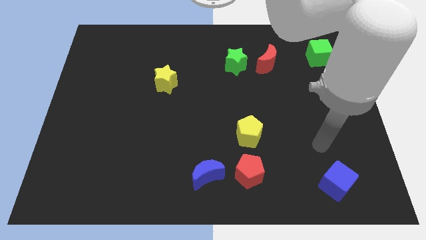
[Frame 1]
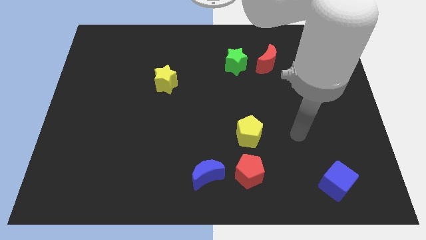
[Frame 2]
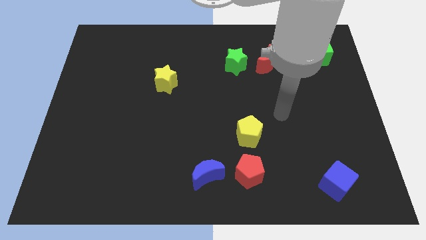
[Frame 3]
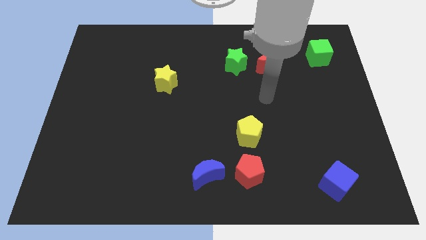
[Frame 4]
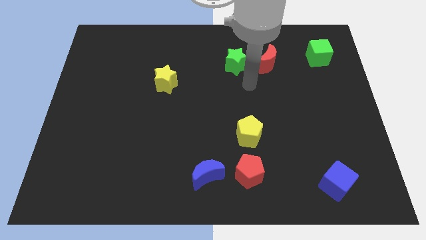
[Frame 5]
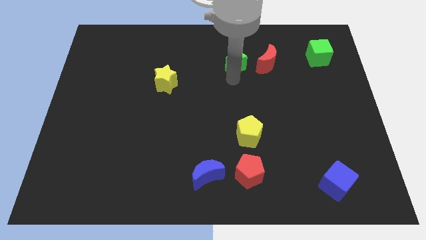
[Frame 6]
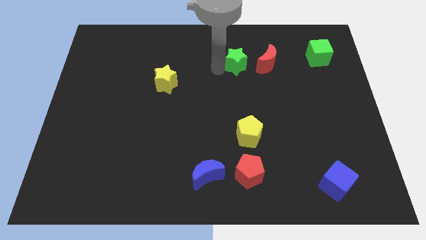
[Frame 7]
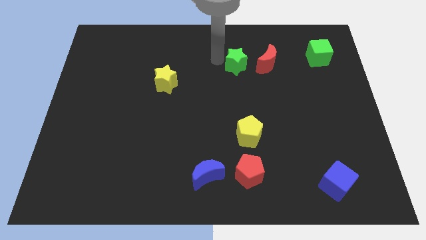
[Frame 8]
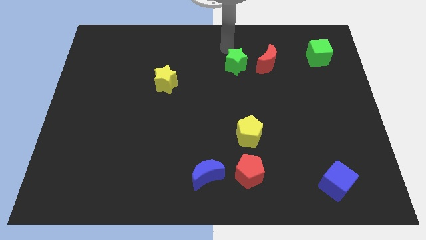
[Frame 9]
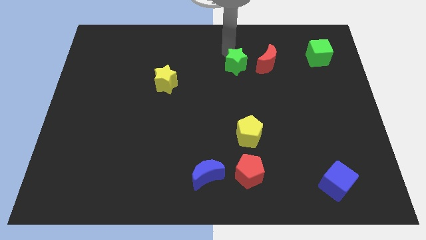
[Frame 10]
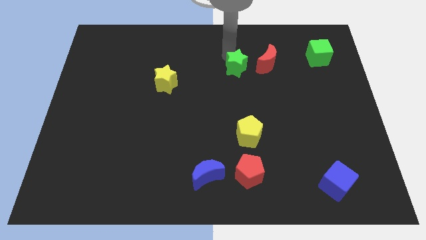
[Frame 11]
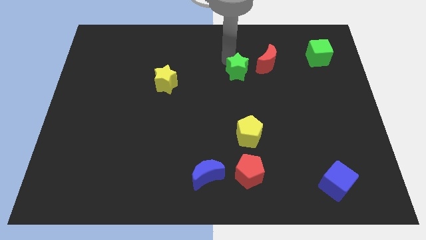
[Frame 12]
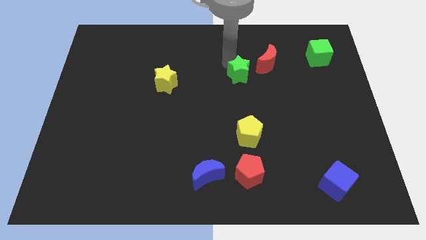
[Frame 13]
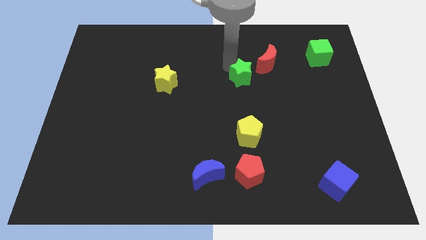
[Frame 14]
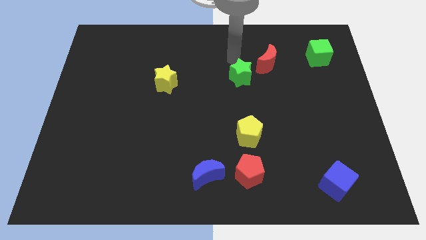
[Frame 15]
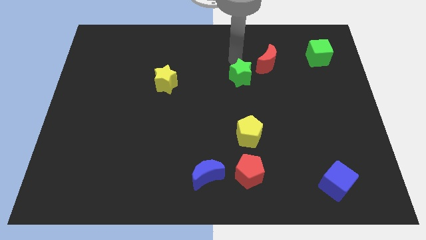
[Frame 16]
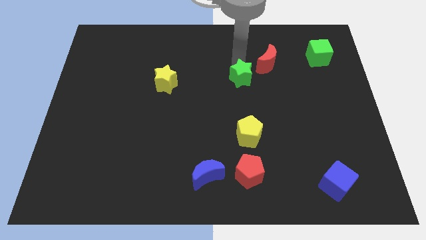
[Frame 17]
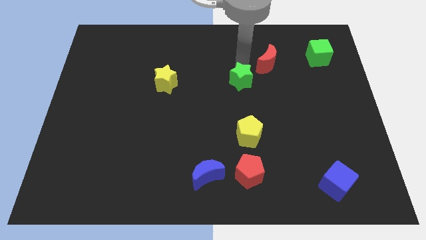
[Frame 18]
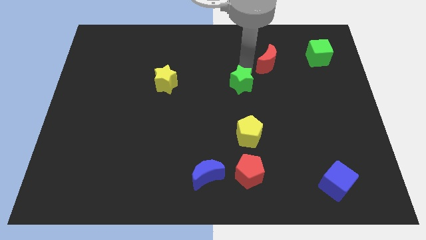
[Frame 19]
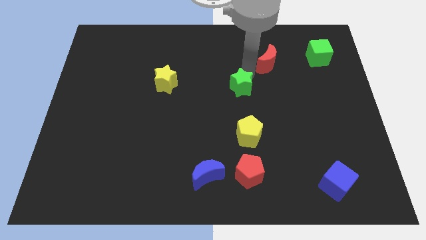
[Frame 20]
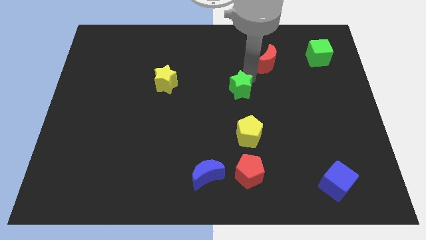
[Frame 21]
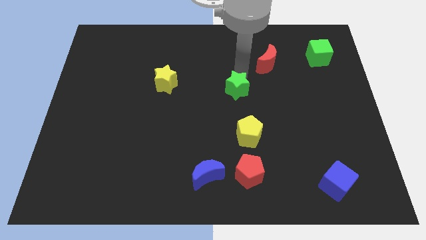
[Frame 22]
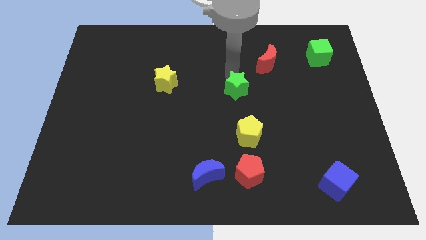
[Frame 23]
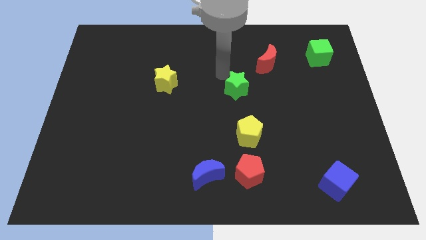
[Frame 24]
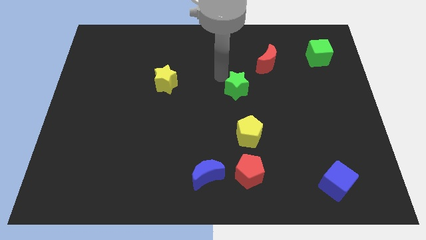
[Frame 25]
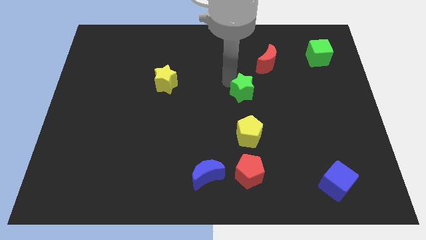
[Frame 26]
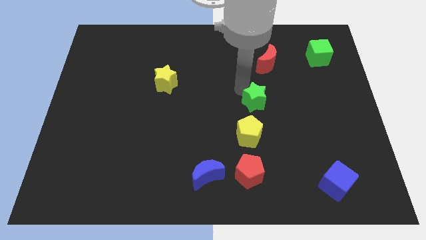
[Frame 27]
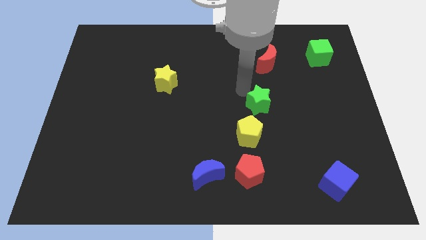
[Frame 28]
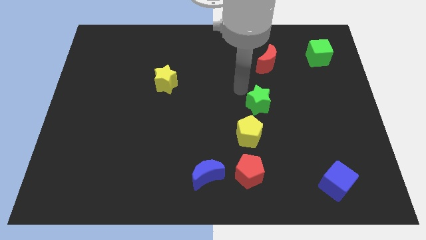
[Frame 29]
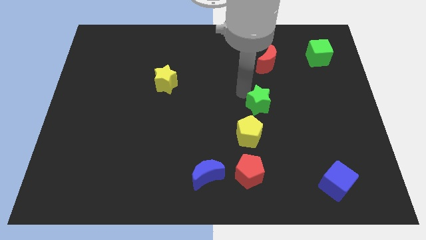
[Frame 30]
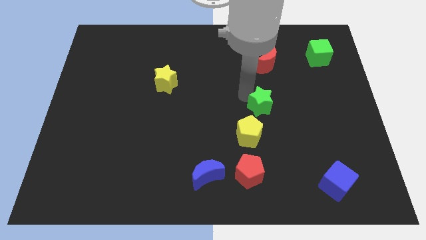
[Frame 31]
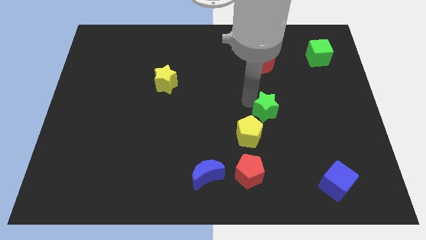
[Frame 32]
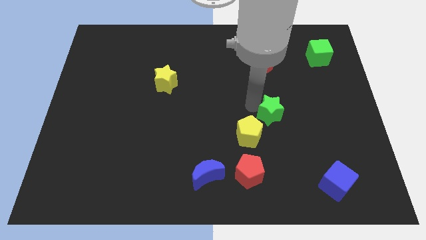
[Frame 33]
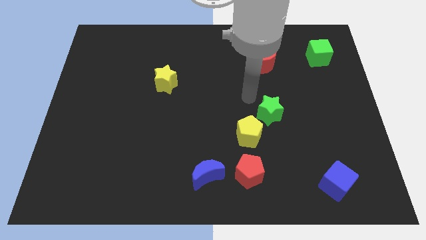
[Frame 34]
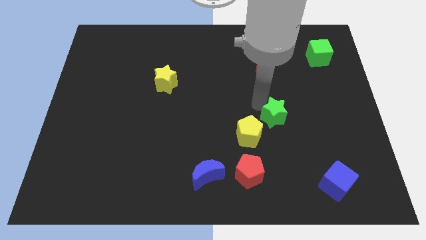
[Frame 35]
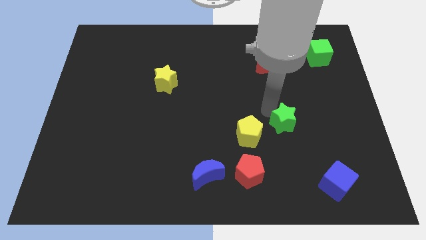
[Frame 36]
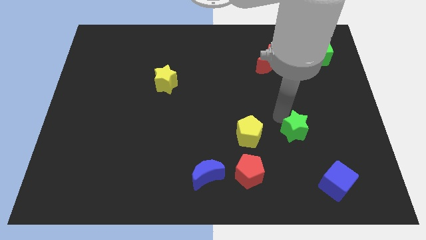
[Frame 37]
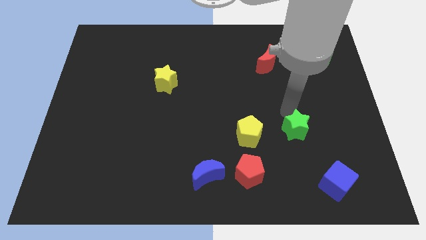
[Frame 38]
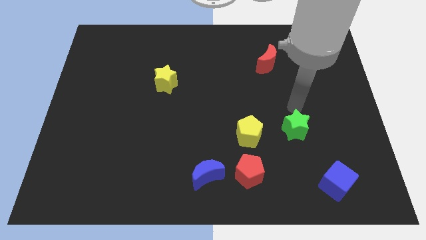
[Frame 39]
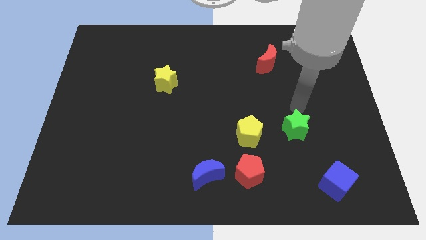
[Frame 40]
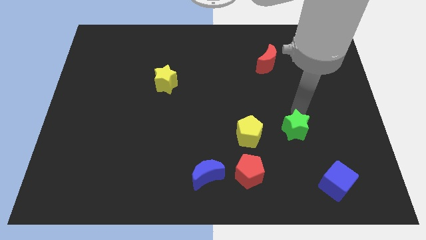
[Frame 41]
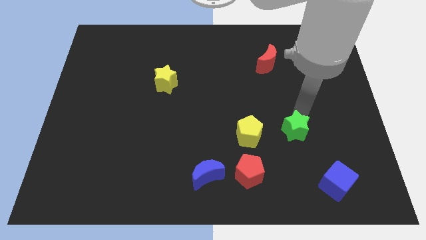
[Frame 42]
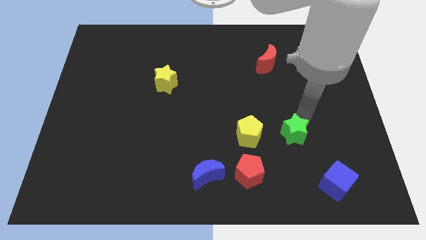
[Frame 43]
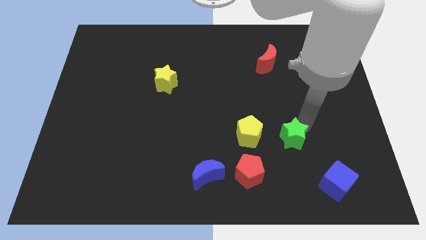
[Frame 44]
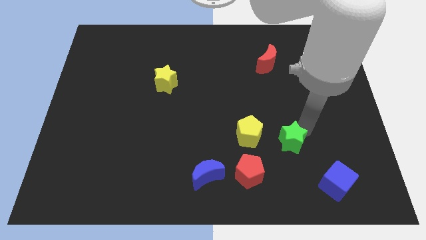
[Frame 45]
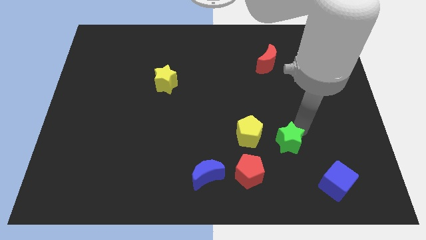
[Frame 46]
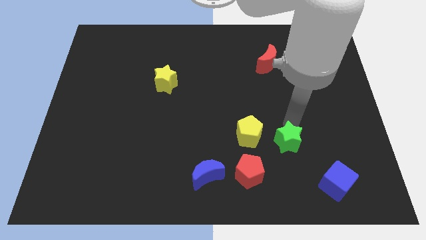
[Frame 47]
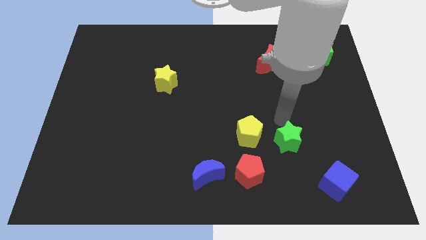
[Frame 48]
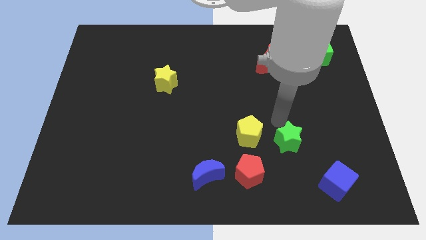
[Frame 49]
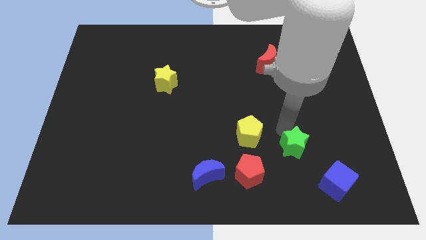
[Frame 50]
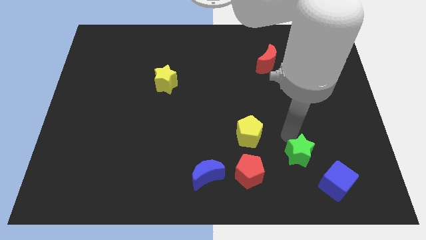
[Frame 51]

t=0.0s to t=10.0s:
push the green star to the right of the red pentagon

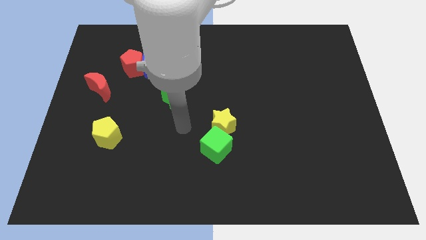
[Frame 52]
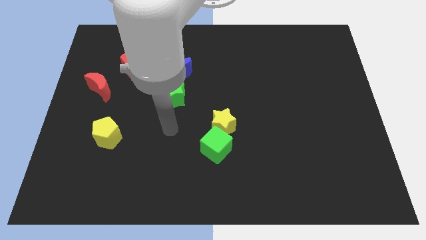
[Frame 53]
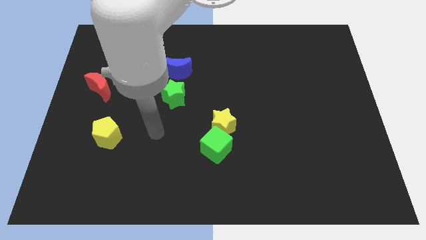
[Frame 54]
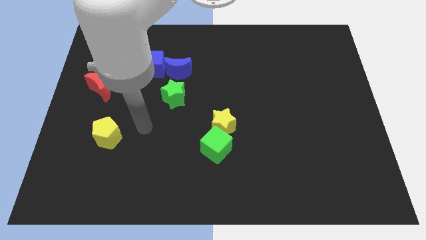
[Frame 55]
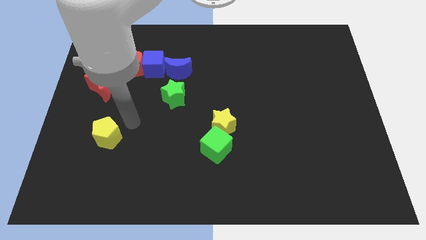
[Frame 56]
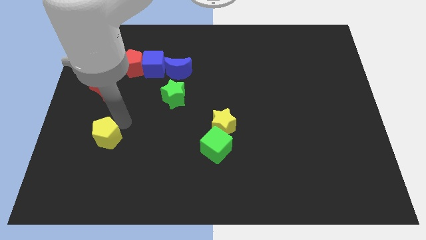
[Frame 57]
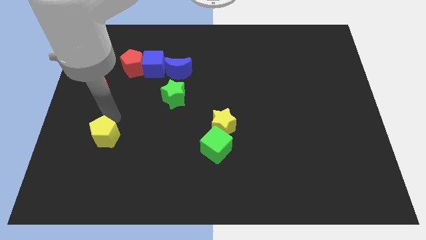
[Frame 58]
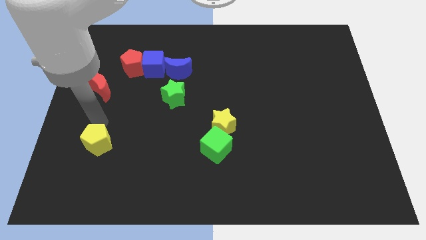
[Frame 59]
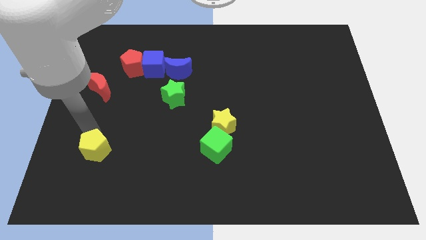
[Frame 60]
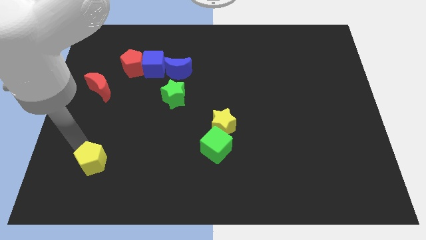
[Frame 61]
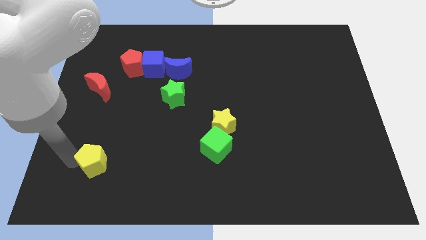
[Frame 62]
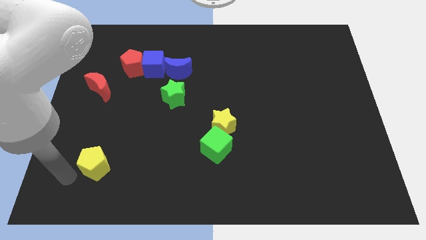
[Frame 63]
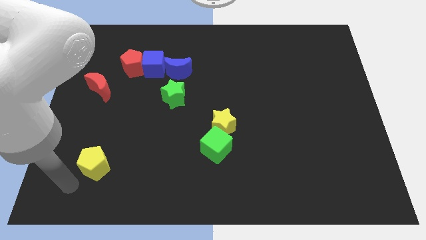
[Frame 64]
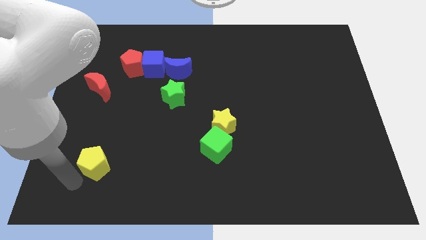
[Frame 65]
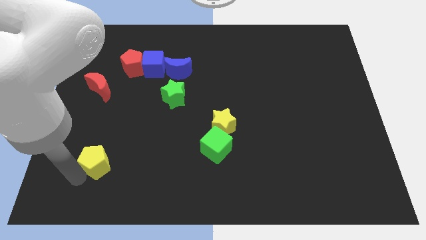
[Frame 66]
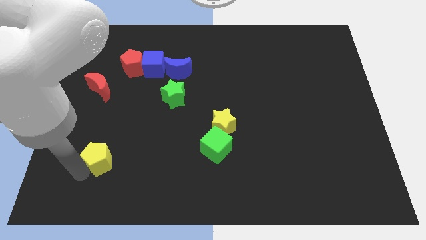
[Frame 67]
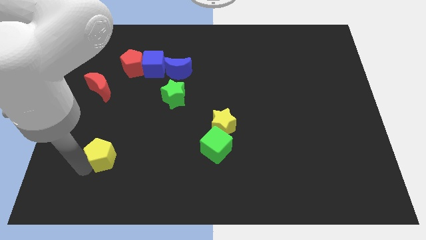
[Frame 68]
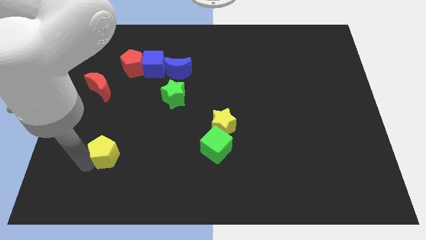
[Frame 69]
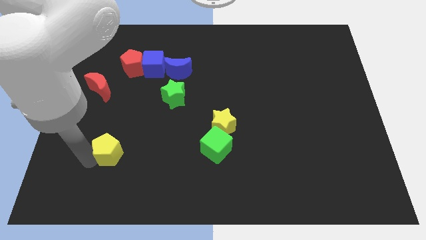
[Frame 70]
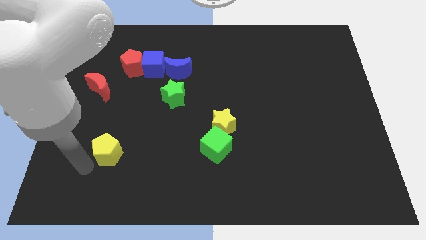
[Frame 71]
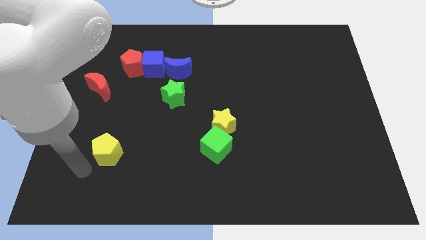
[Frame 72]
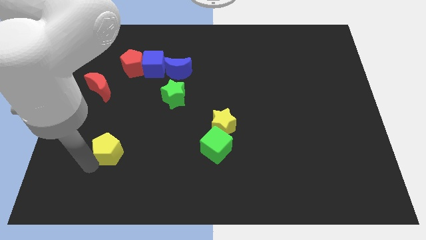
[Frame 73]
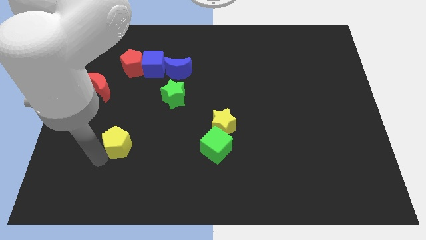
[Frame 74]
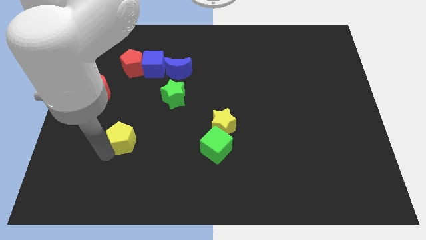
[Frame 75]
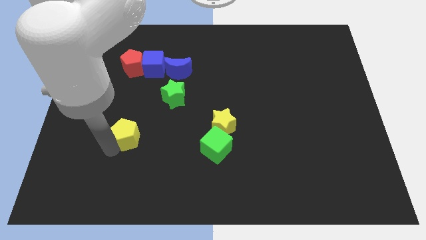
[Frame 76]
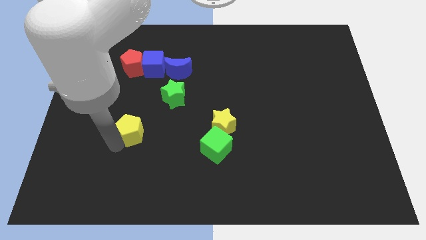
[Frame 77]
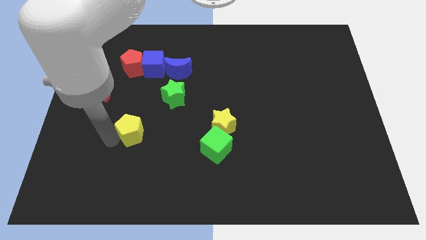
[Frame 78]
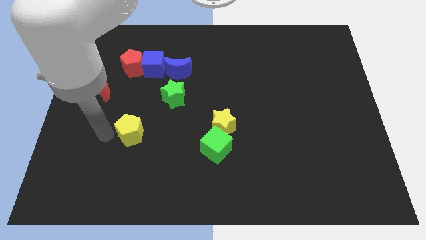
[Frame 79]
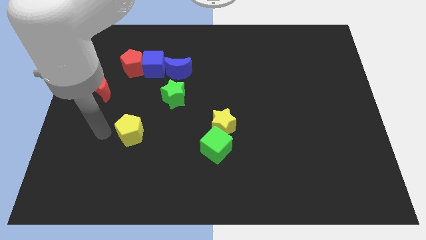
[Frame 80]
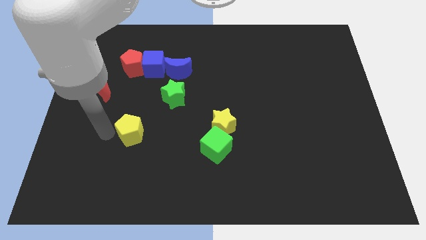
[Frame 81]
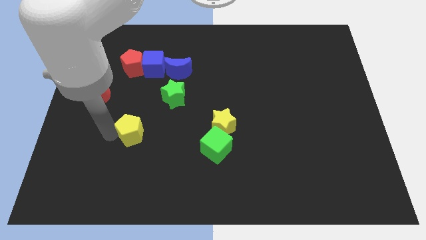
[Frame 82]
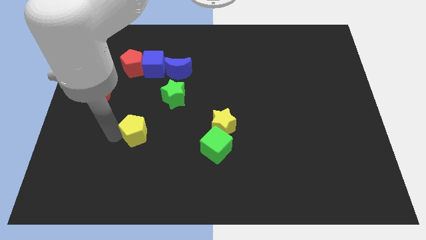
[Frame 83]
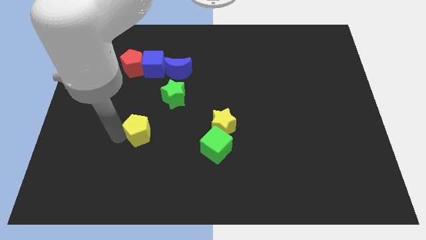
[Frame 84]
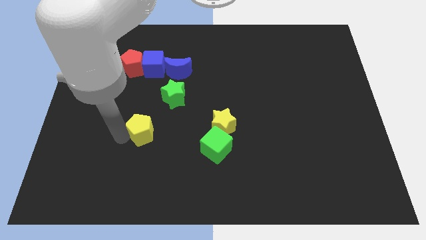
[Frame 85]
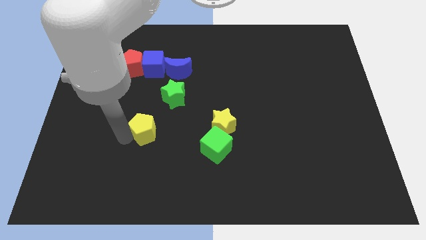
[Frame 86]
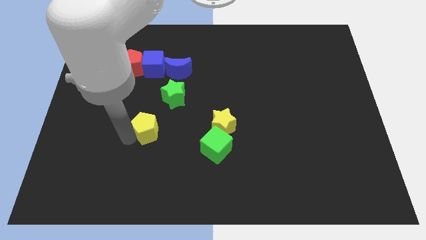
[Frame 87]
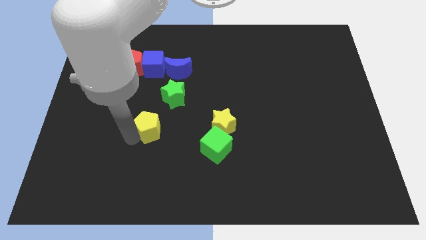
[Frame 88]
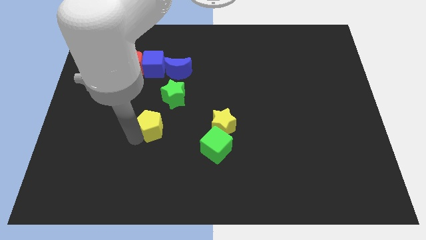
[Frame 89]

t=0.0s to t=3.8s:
slide the yellow pentagon to the bottom of the green star
